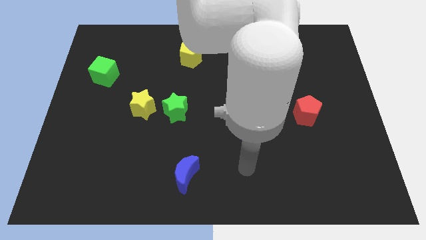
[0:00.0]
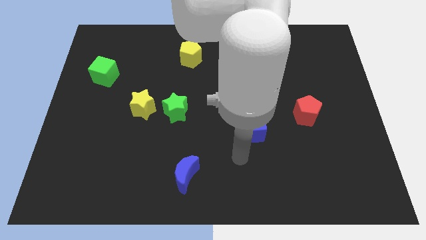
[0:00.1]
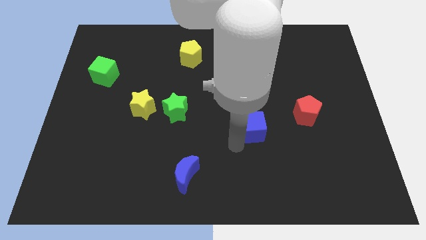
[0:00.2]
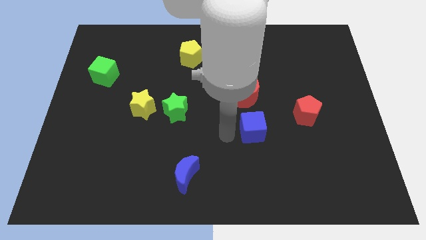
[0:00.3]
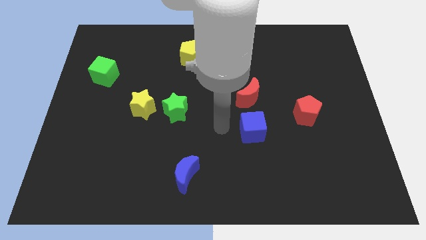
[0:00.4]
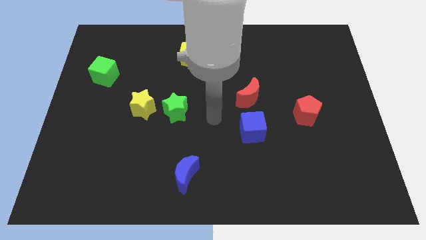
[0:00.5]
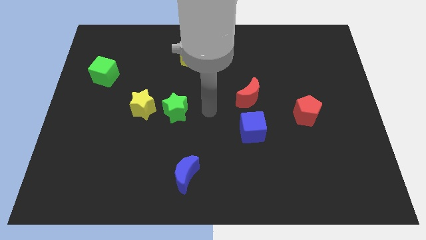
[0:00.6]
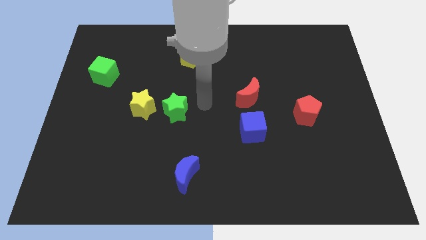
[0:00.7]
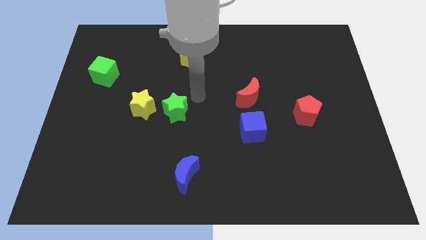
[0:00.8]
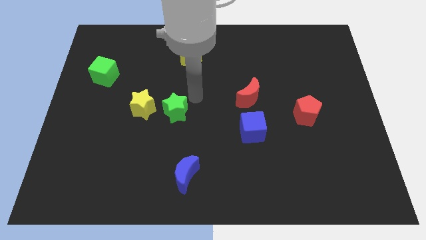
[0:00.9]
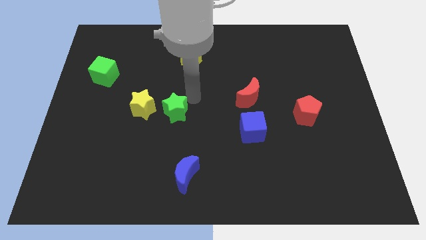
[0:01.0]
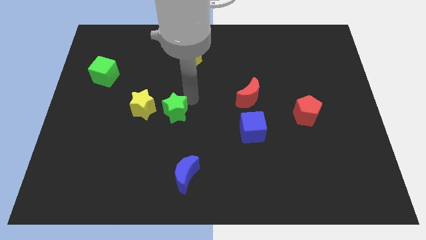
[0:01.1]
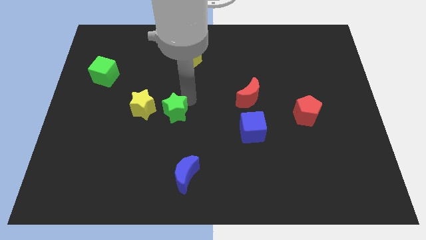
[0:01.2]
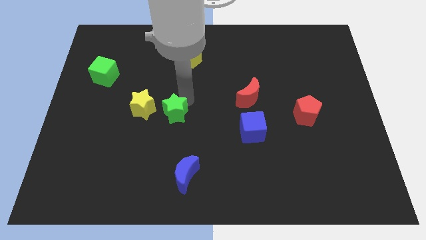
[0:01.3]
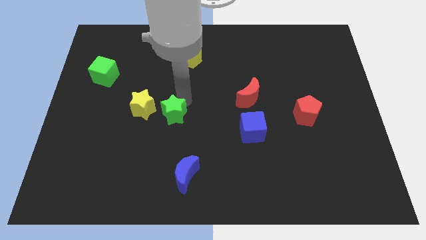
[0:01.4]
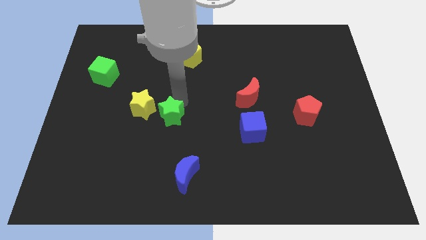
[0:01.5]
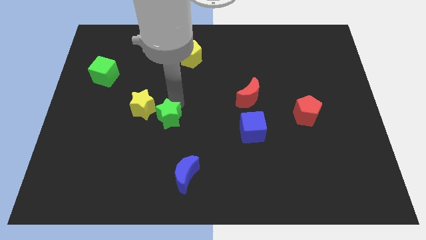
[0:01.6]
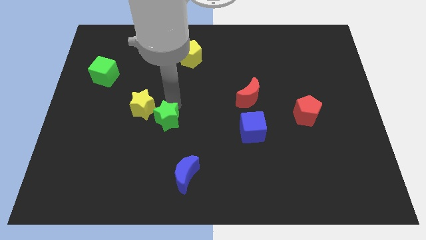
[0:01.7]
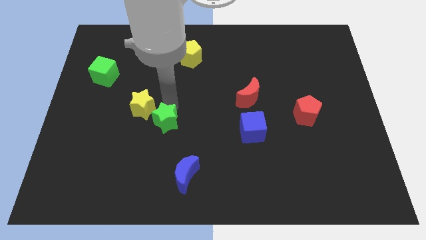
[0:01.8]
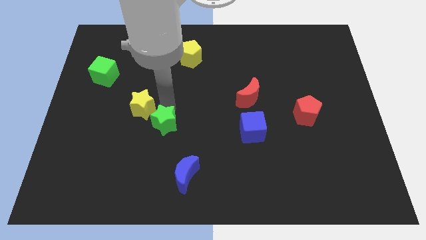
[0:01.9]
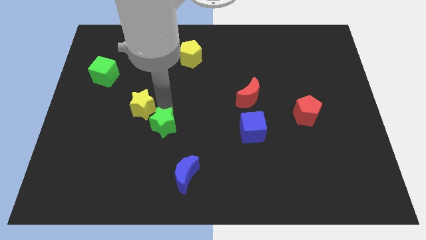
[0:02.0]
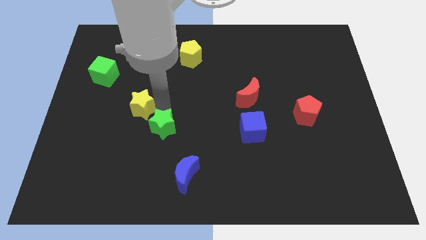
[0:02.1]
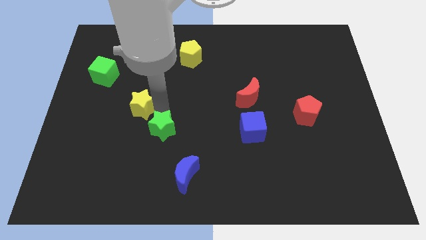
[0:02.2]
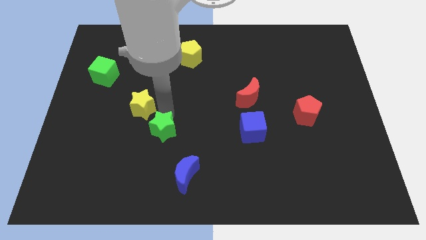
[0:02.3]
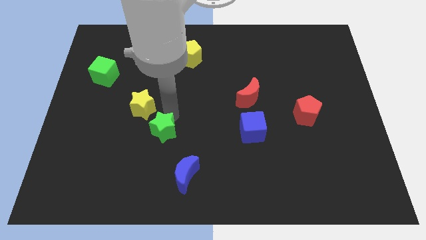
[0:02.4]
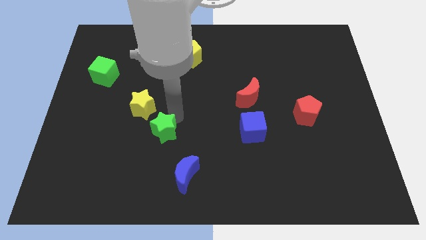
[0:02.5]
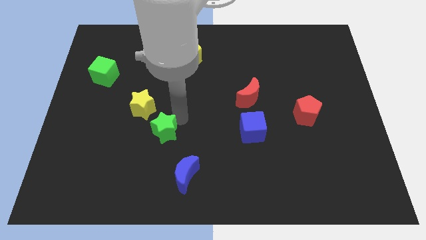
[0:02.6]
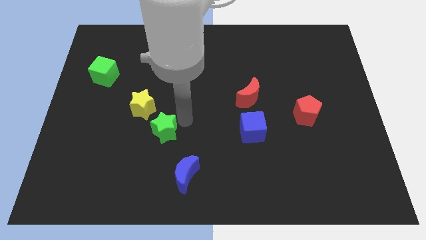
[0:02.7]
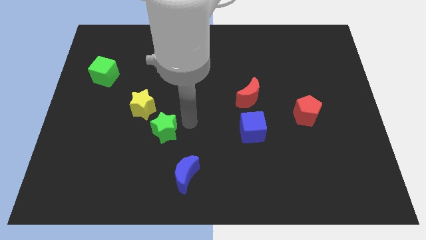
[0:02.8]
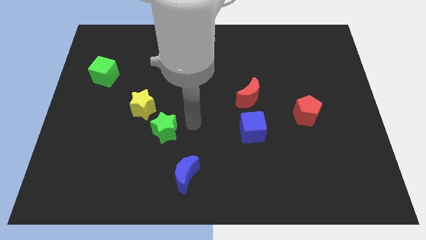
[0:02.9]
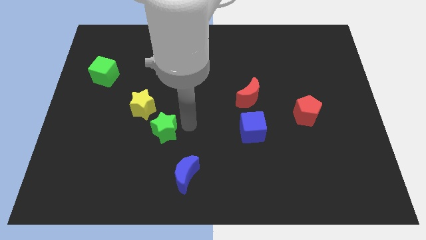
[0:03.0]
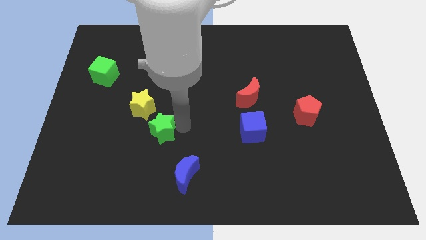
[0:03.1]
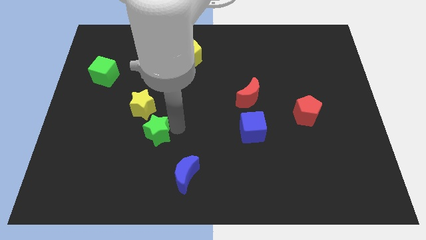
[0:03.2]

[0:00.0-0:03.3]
slide the green star downwards and left diagonally slightly

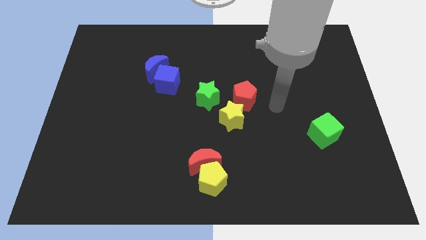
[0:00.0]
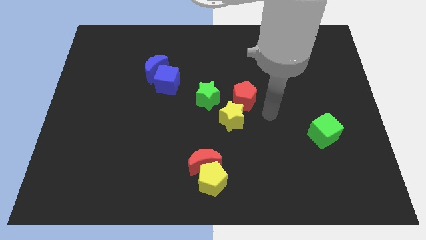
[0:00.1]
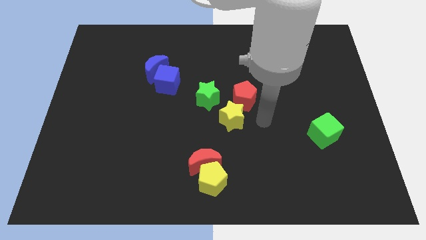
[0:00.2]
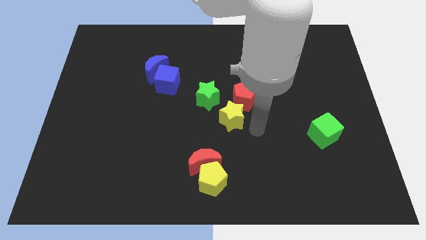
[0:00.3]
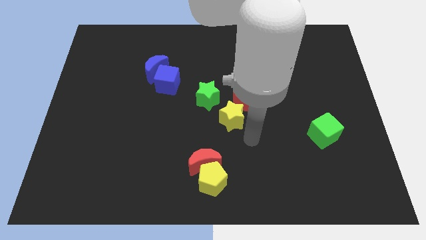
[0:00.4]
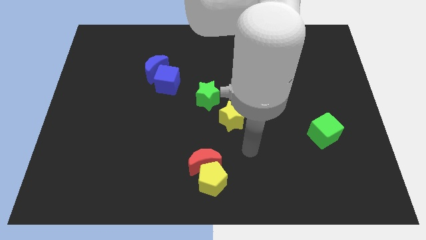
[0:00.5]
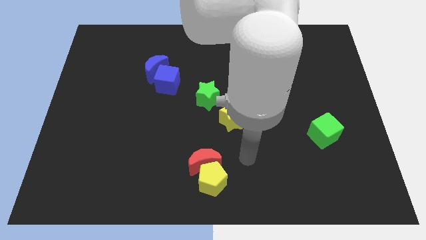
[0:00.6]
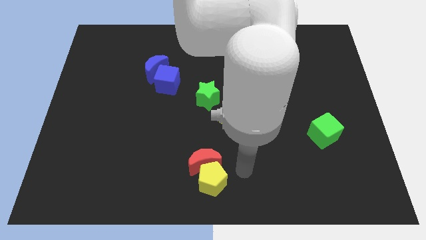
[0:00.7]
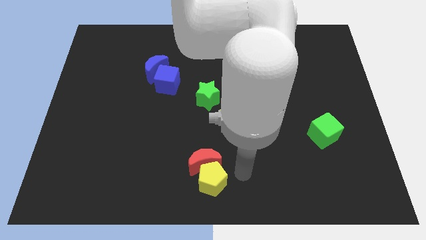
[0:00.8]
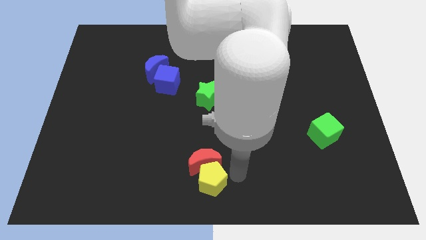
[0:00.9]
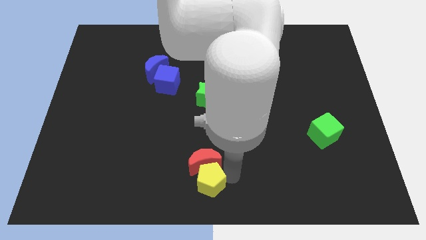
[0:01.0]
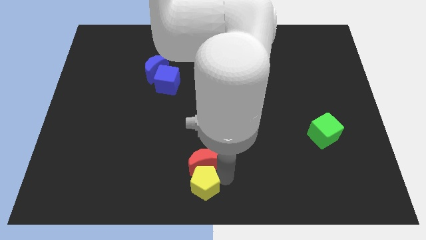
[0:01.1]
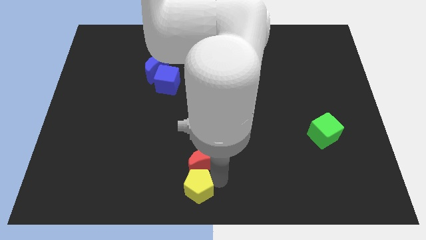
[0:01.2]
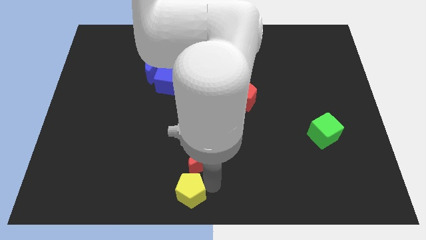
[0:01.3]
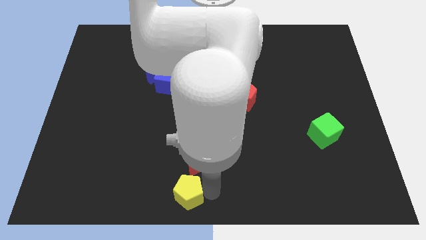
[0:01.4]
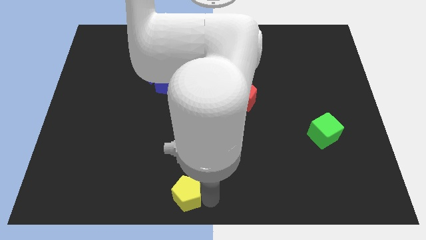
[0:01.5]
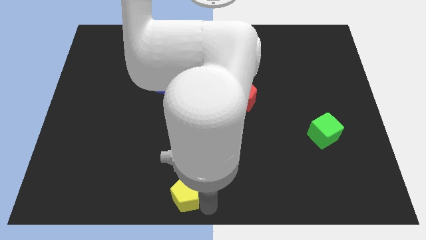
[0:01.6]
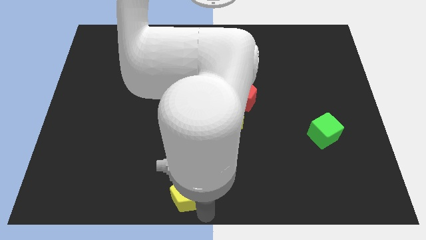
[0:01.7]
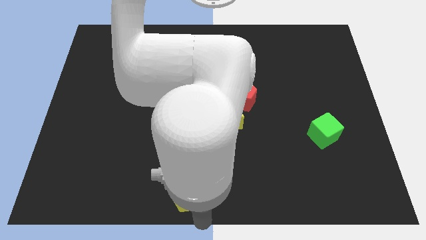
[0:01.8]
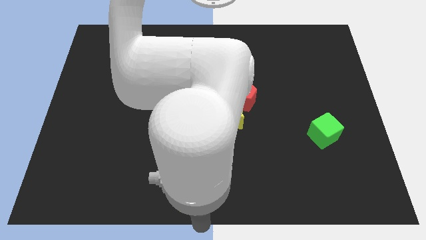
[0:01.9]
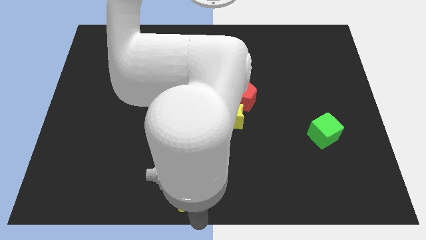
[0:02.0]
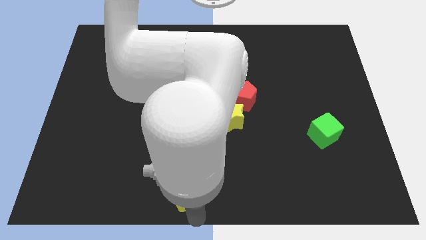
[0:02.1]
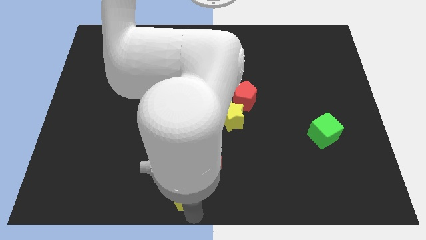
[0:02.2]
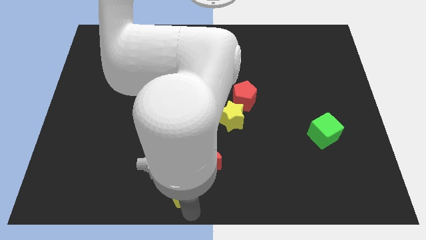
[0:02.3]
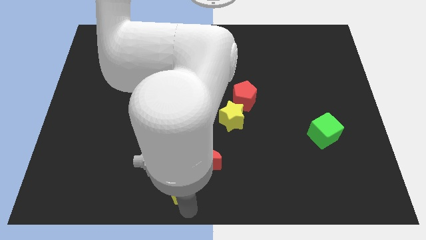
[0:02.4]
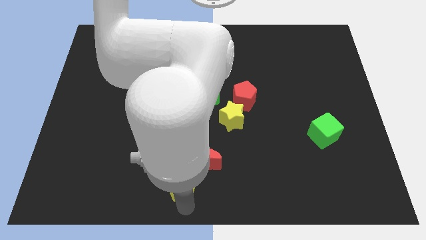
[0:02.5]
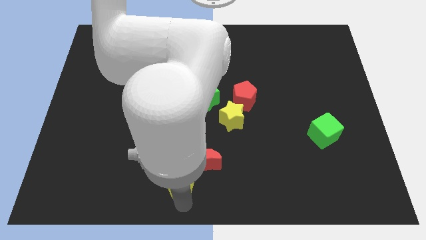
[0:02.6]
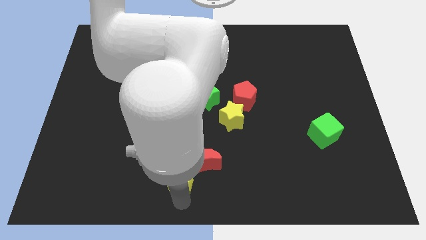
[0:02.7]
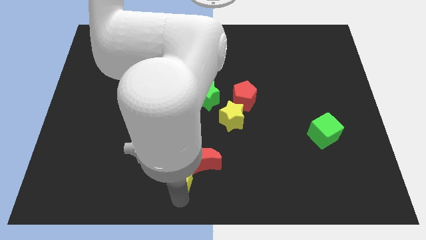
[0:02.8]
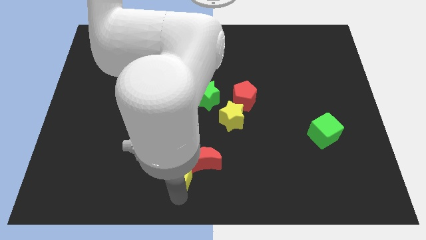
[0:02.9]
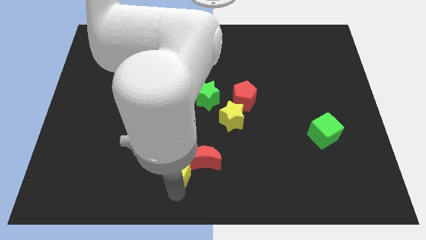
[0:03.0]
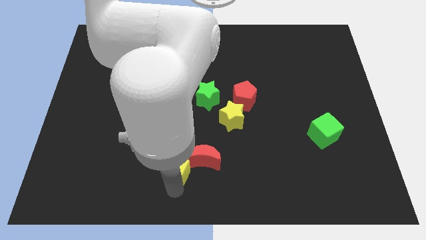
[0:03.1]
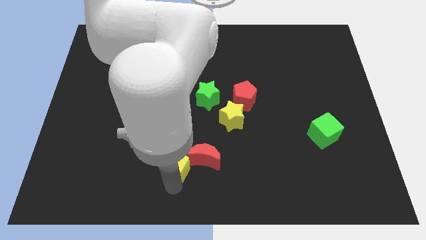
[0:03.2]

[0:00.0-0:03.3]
slightly push the yellow pentagon upwards and to the left diagonally

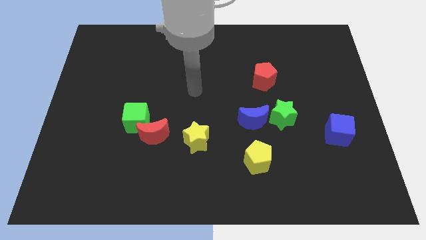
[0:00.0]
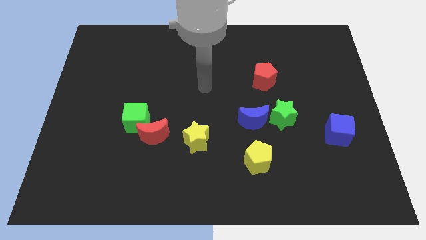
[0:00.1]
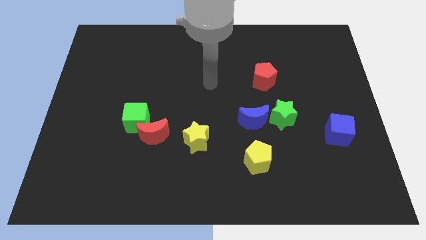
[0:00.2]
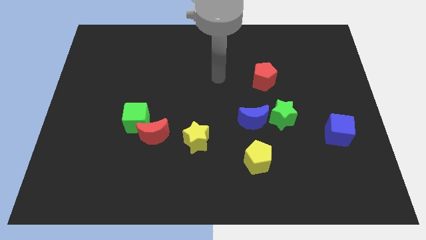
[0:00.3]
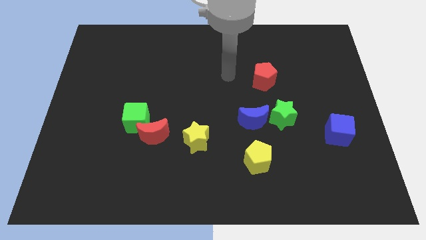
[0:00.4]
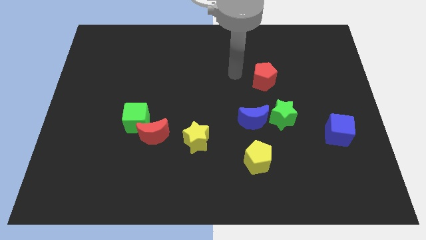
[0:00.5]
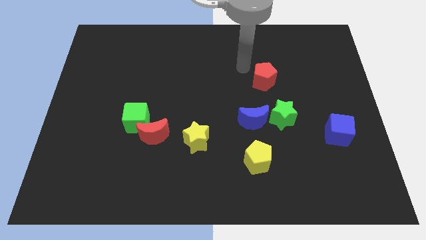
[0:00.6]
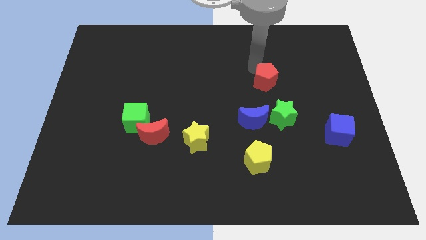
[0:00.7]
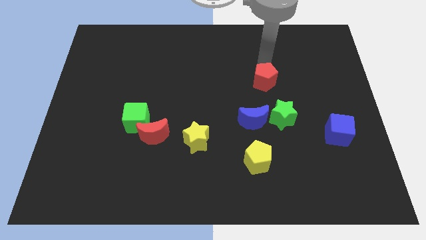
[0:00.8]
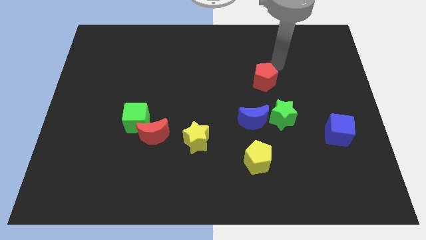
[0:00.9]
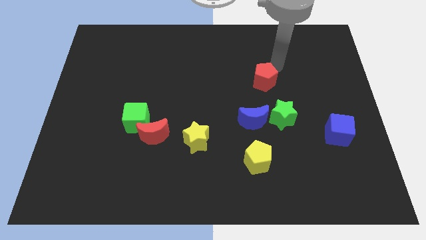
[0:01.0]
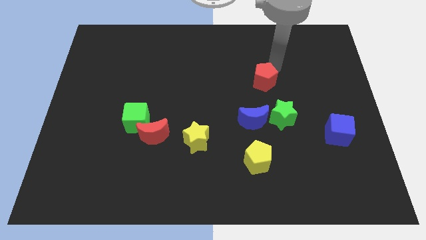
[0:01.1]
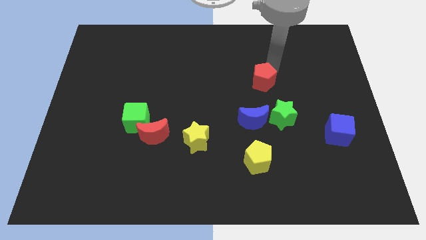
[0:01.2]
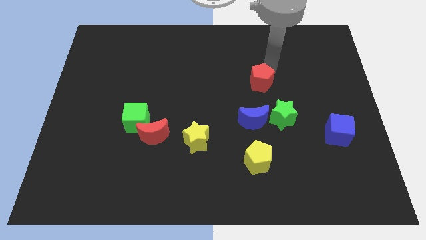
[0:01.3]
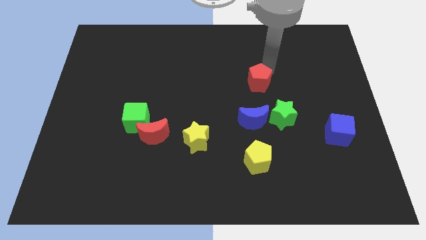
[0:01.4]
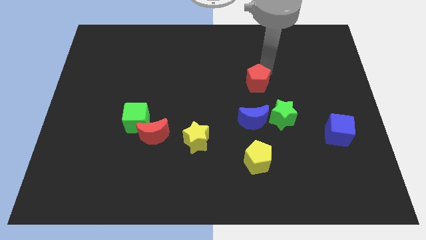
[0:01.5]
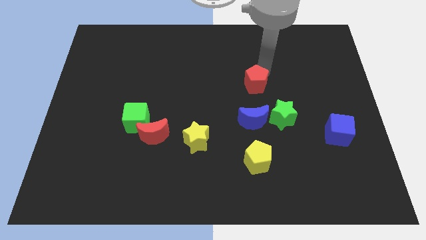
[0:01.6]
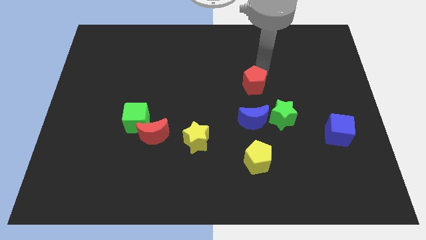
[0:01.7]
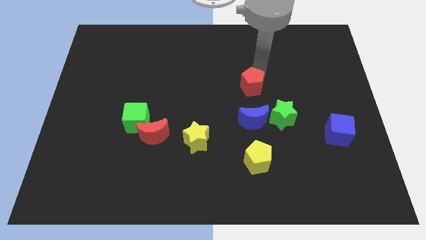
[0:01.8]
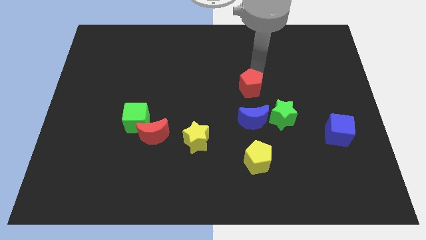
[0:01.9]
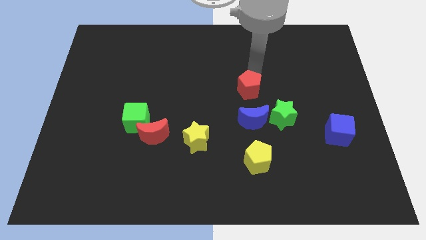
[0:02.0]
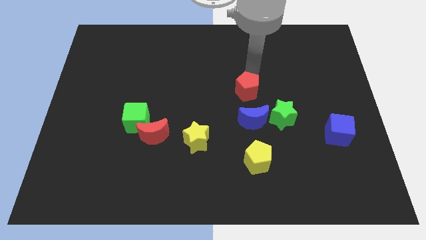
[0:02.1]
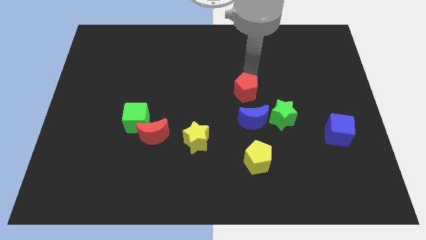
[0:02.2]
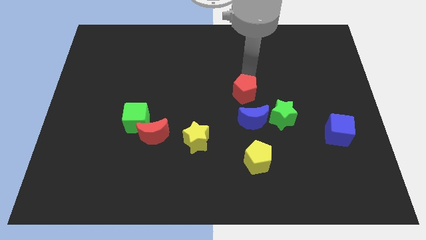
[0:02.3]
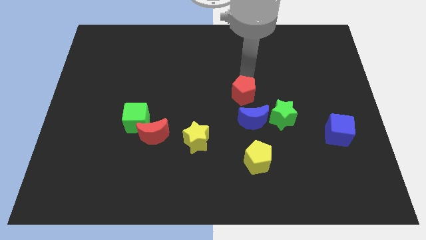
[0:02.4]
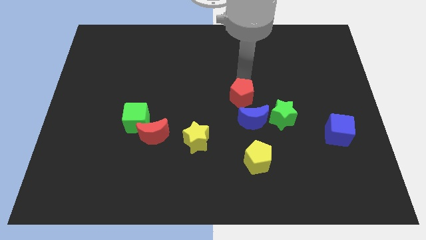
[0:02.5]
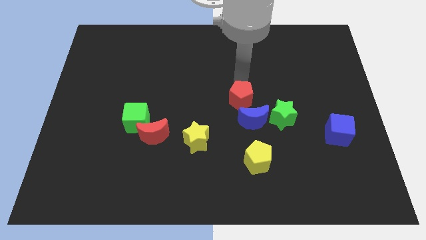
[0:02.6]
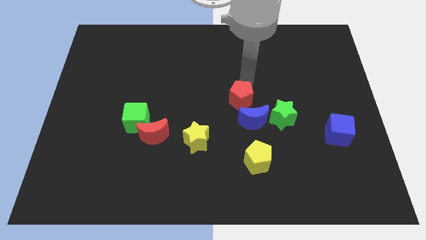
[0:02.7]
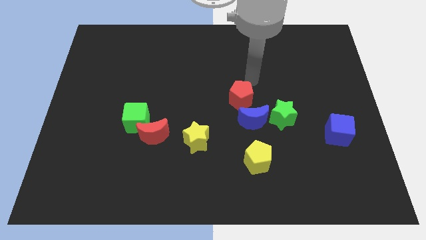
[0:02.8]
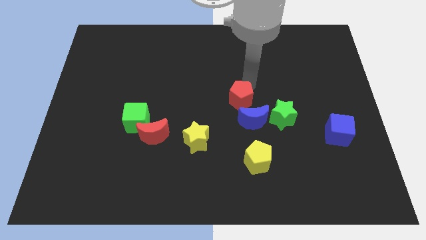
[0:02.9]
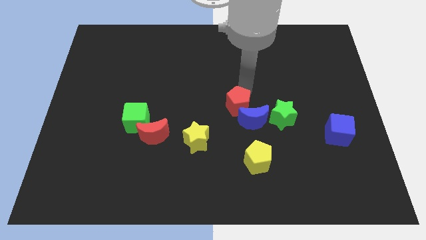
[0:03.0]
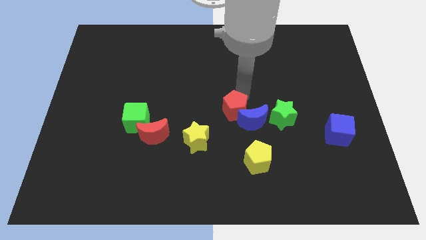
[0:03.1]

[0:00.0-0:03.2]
slightly slide the red pentagon downwards
